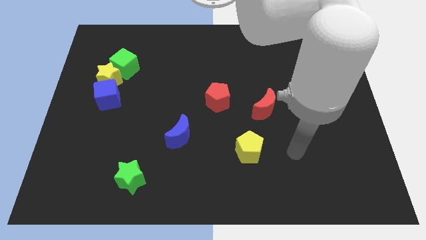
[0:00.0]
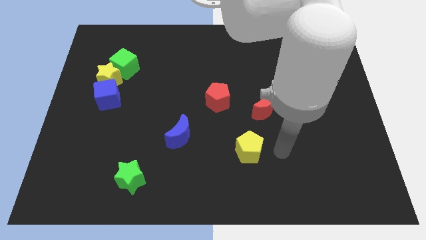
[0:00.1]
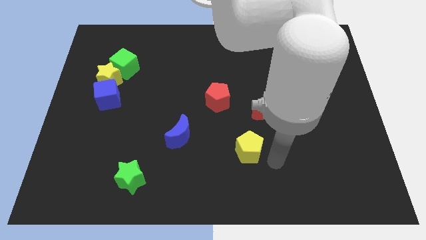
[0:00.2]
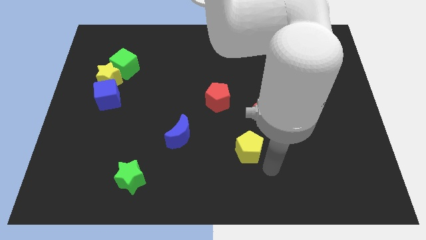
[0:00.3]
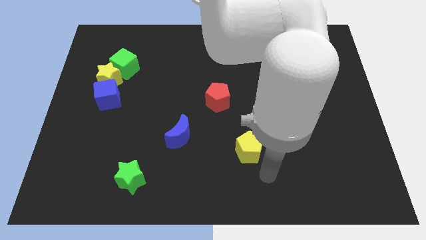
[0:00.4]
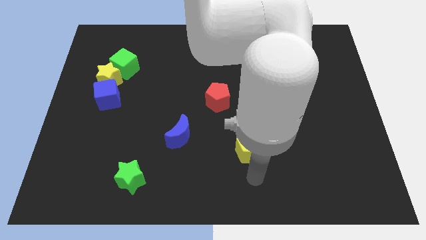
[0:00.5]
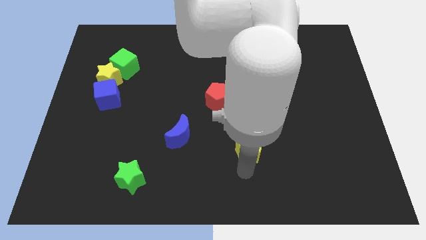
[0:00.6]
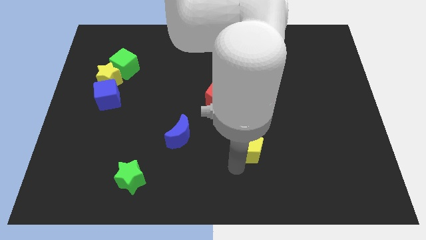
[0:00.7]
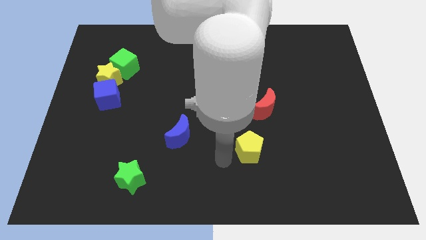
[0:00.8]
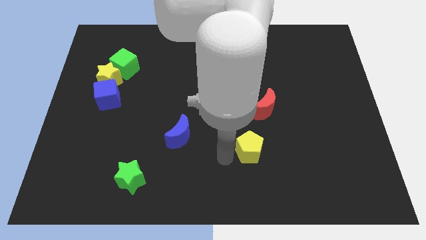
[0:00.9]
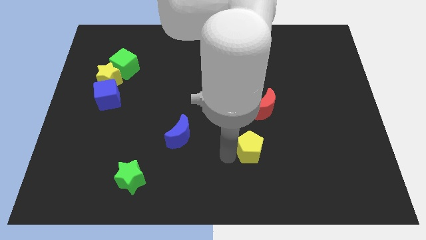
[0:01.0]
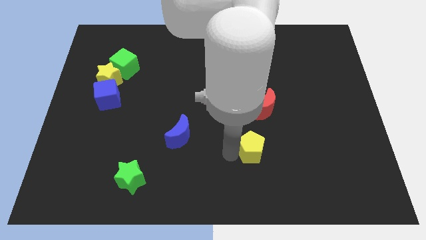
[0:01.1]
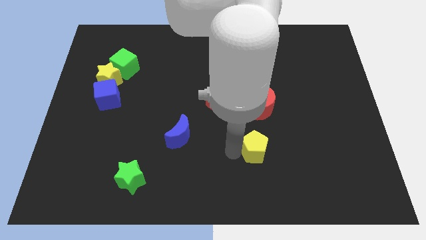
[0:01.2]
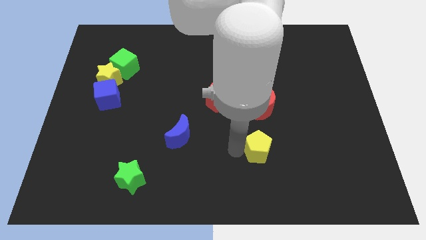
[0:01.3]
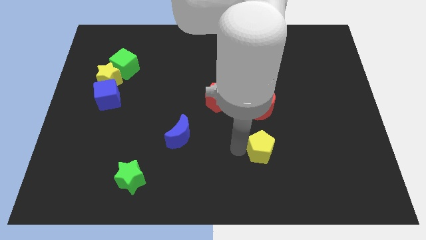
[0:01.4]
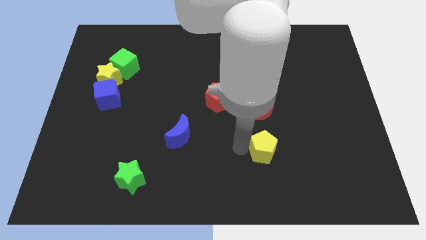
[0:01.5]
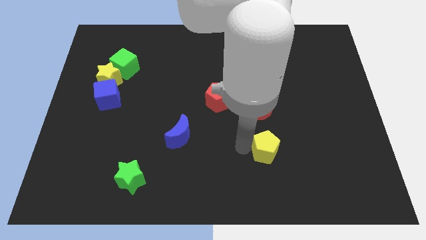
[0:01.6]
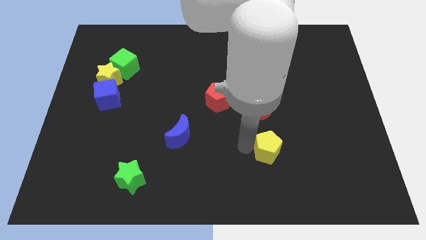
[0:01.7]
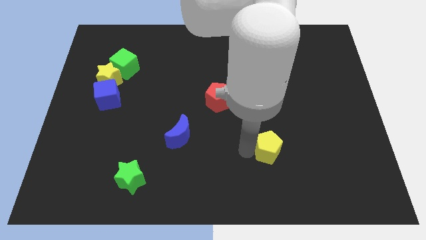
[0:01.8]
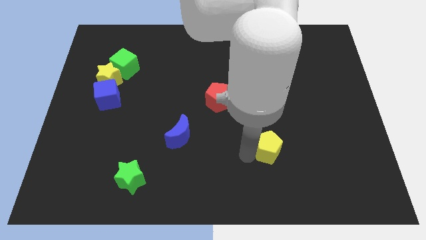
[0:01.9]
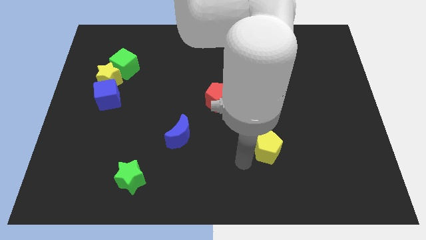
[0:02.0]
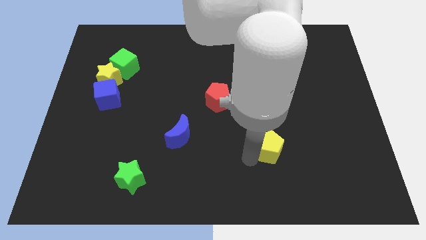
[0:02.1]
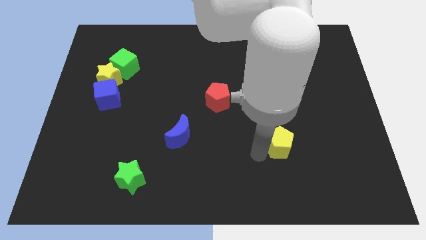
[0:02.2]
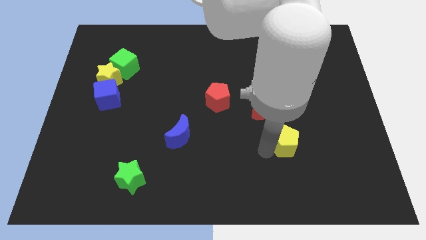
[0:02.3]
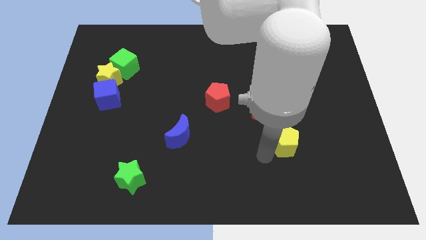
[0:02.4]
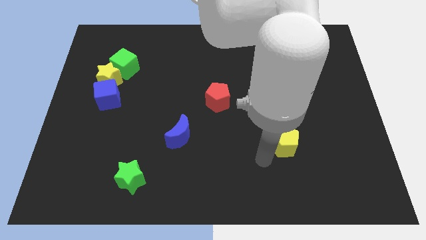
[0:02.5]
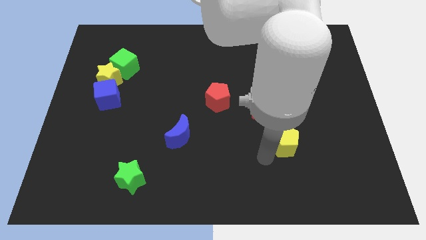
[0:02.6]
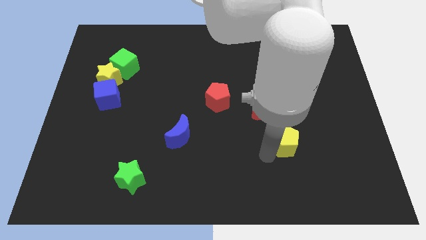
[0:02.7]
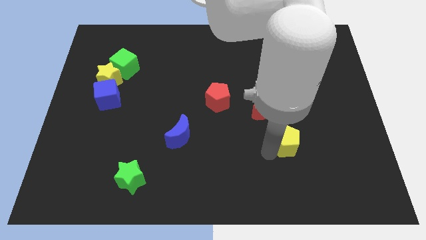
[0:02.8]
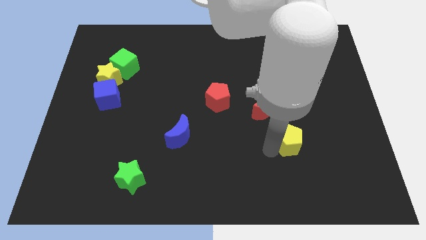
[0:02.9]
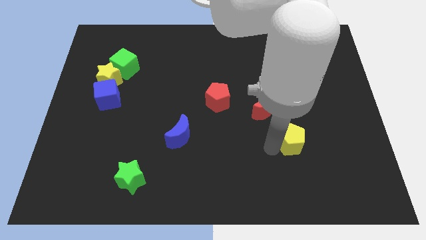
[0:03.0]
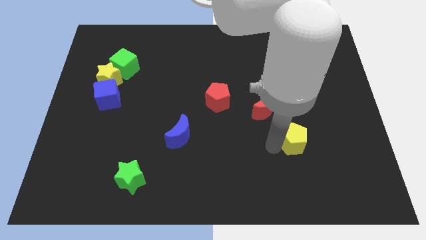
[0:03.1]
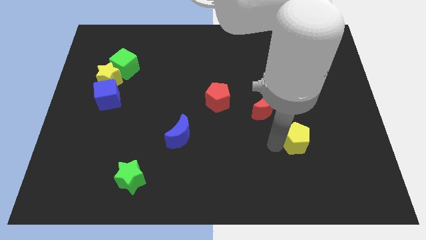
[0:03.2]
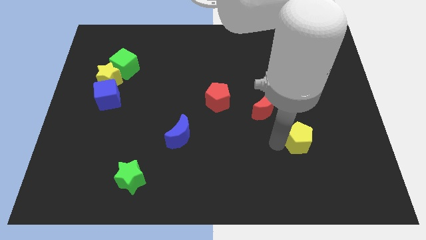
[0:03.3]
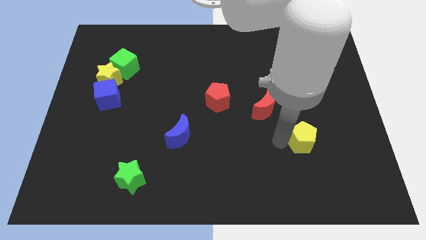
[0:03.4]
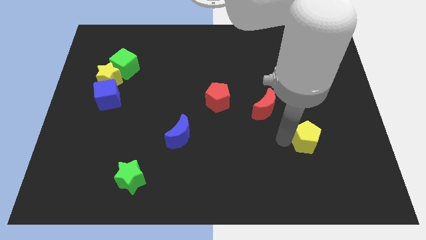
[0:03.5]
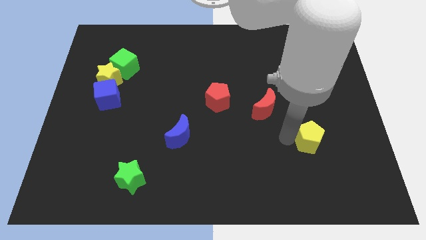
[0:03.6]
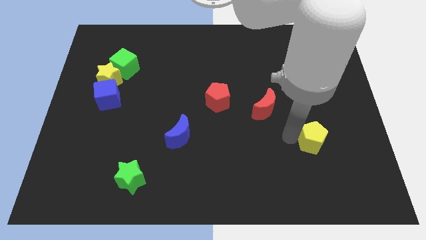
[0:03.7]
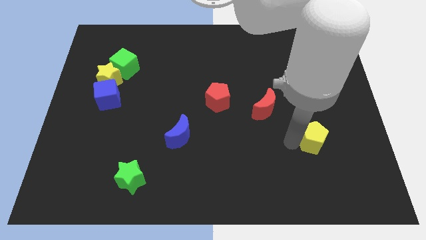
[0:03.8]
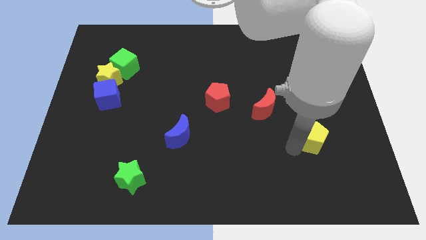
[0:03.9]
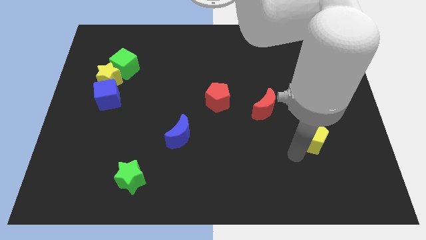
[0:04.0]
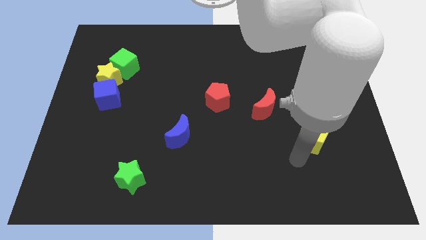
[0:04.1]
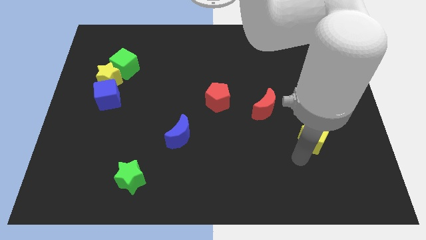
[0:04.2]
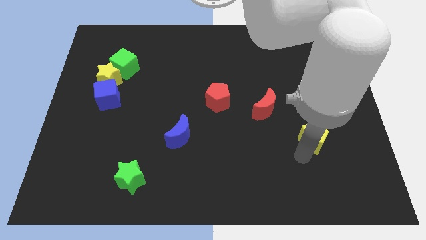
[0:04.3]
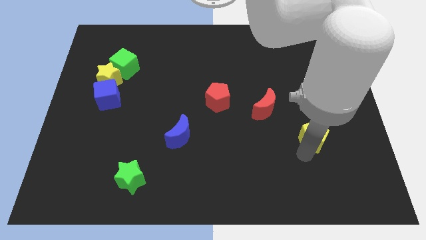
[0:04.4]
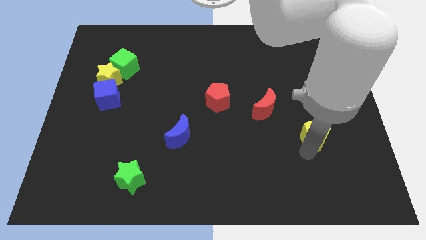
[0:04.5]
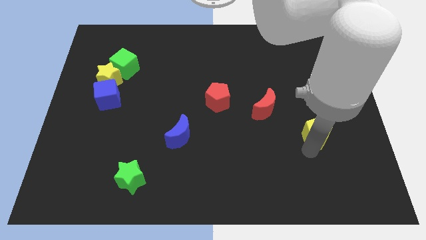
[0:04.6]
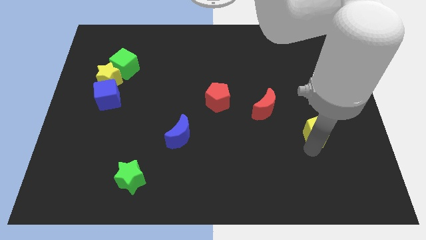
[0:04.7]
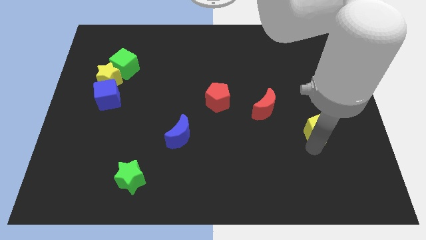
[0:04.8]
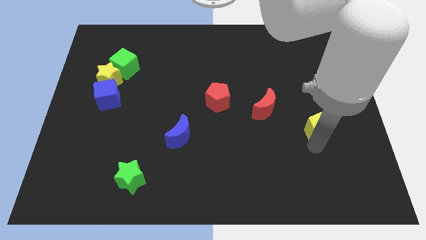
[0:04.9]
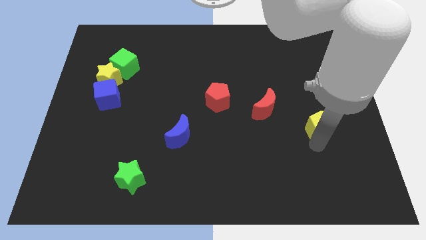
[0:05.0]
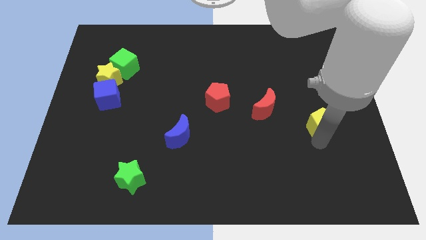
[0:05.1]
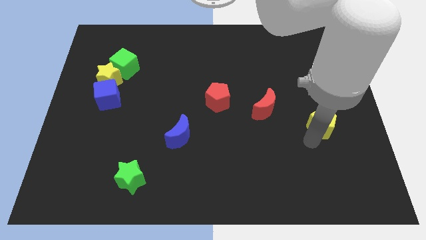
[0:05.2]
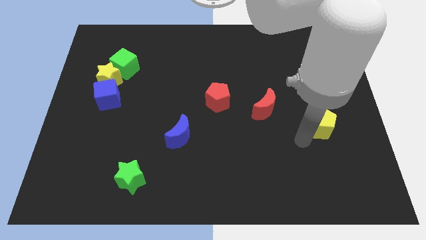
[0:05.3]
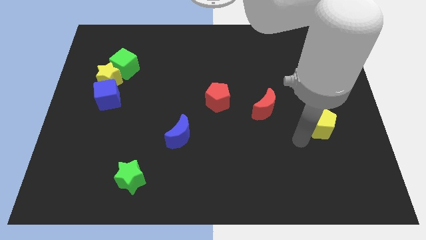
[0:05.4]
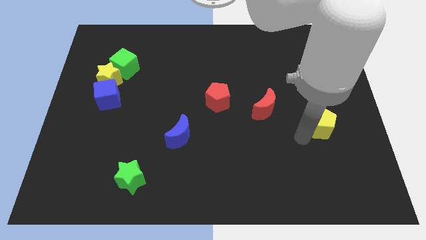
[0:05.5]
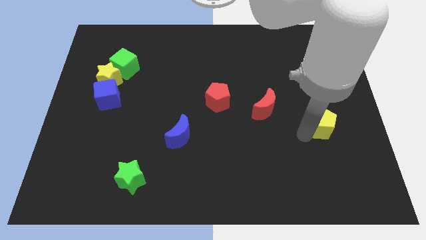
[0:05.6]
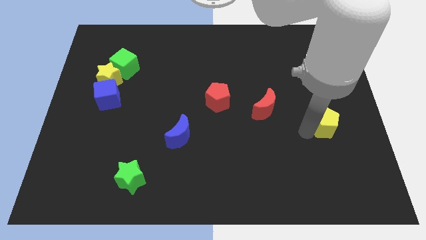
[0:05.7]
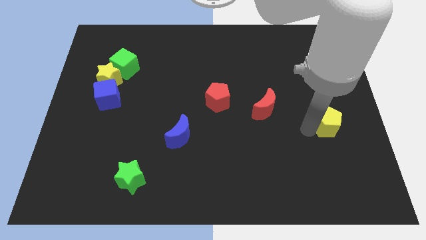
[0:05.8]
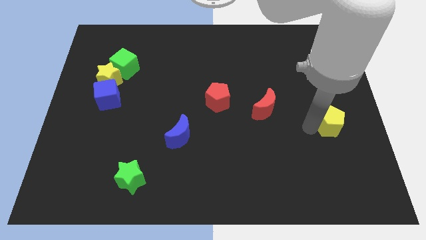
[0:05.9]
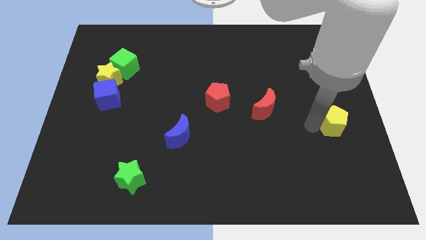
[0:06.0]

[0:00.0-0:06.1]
slide the yellow pentagon to the center right
